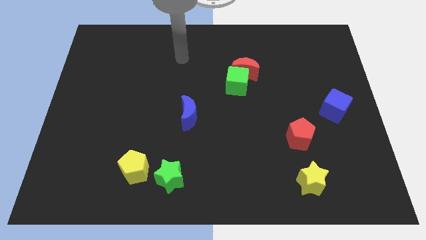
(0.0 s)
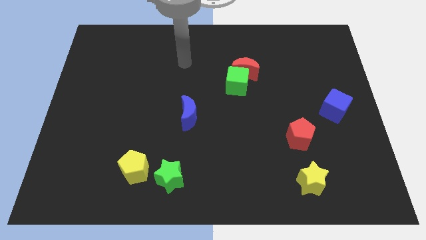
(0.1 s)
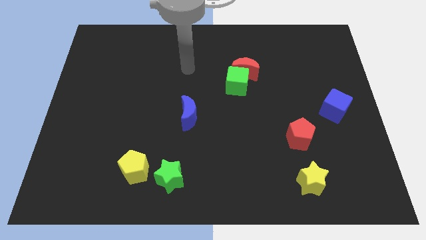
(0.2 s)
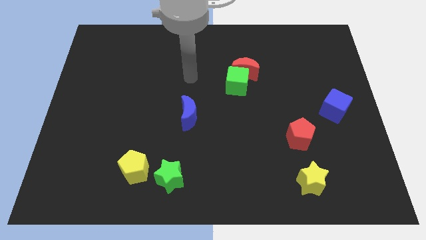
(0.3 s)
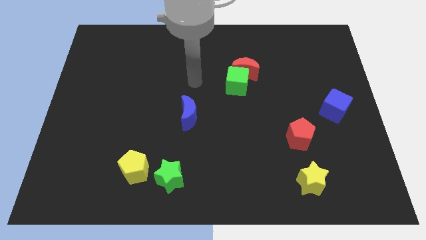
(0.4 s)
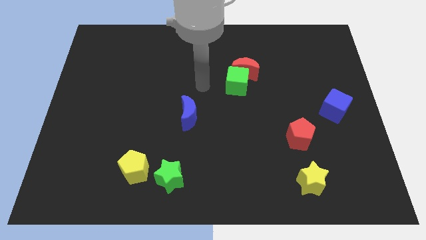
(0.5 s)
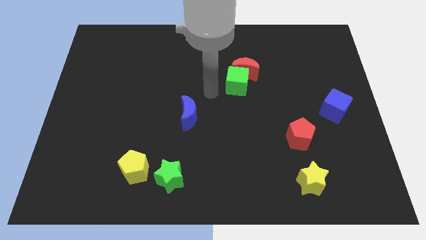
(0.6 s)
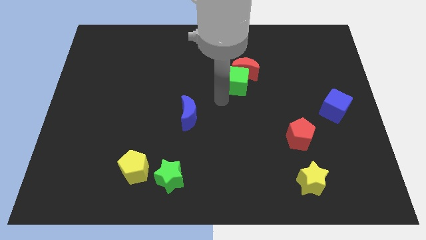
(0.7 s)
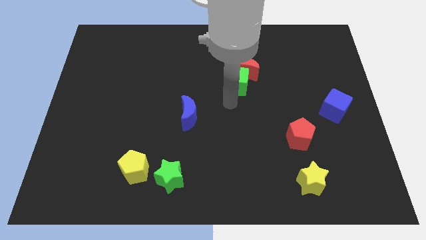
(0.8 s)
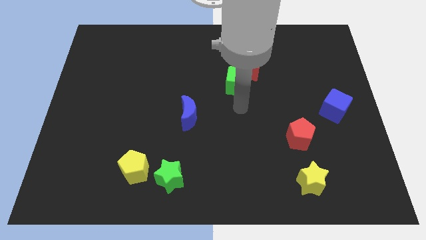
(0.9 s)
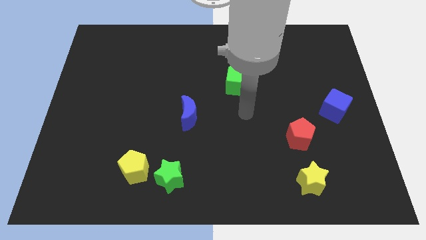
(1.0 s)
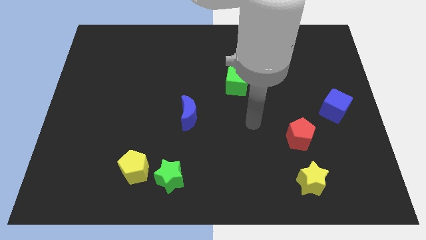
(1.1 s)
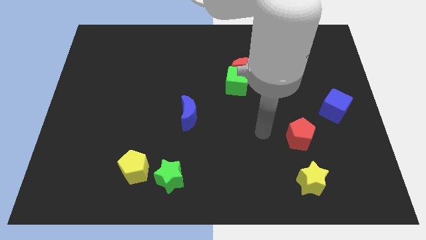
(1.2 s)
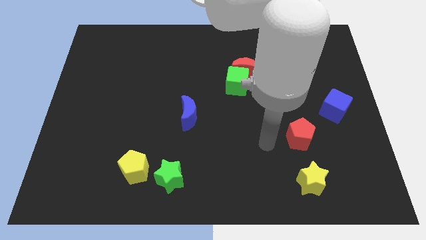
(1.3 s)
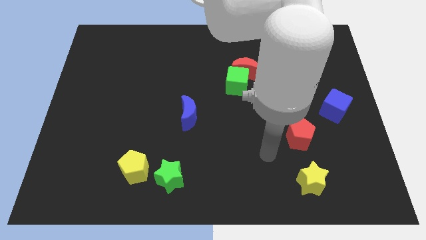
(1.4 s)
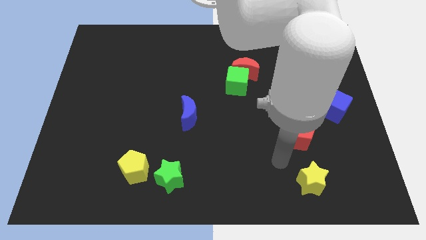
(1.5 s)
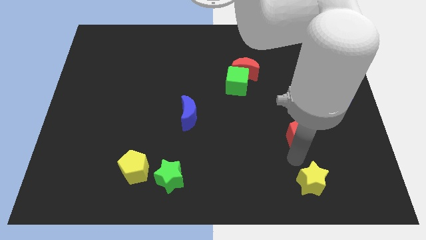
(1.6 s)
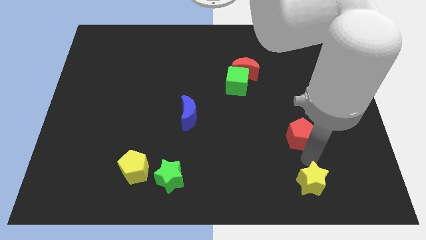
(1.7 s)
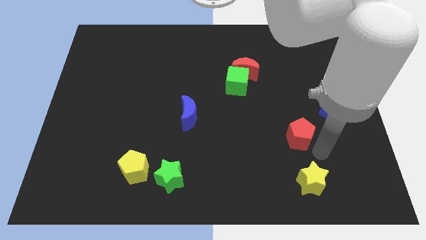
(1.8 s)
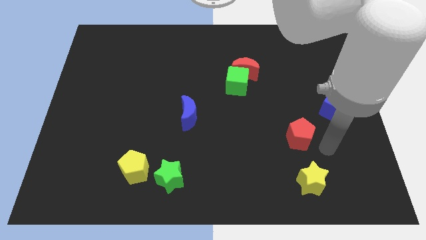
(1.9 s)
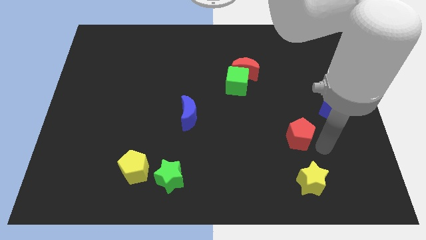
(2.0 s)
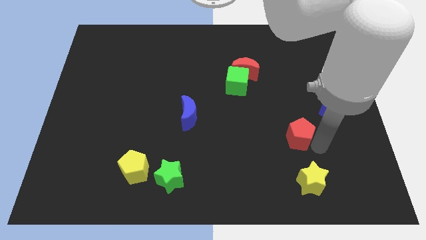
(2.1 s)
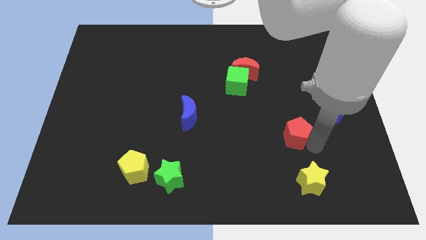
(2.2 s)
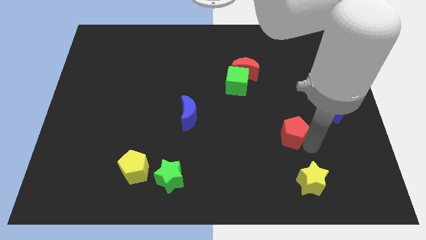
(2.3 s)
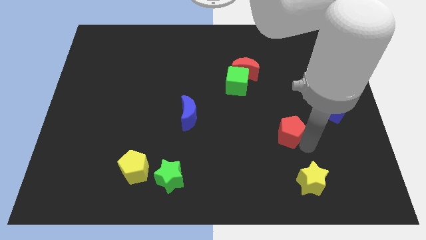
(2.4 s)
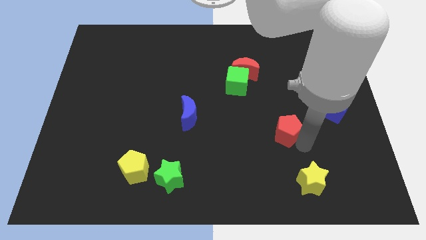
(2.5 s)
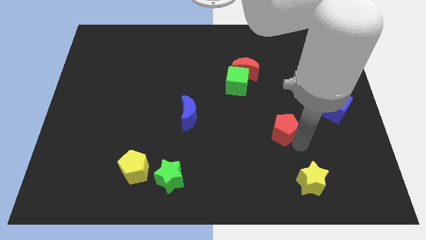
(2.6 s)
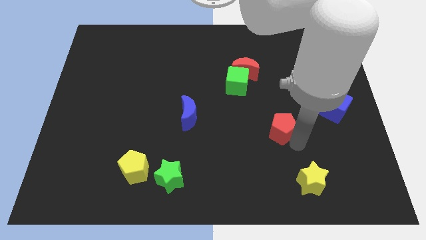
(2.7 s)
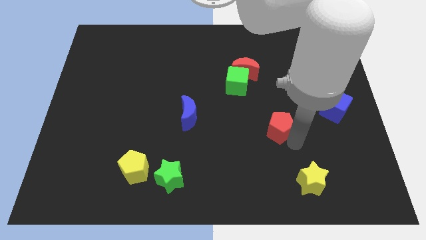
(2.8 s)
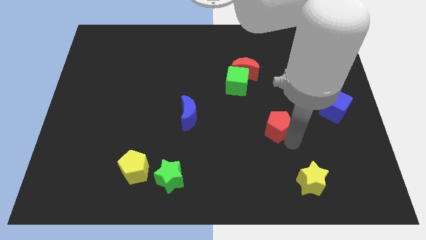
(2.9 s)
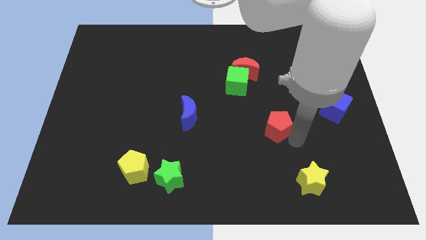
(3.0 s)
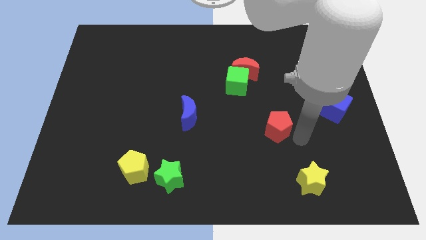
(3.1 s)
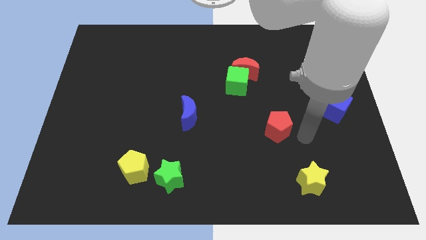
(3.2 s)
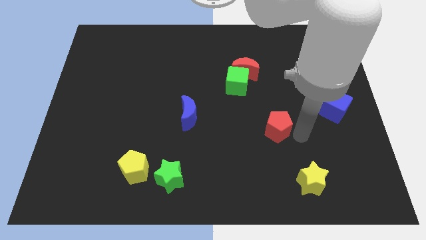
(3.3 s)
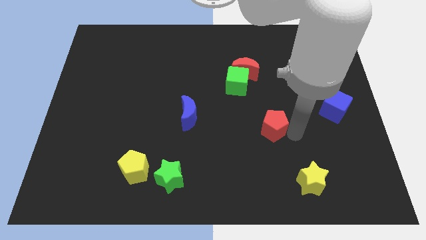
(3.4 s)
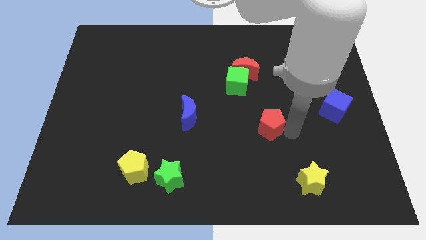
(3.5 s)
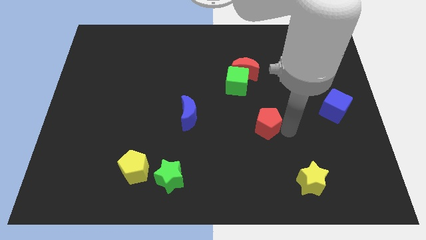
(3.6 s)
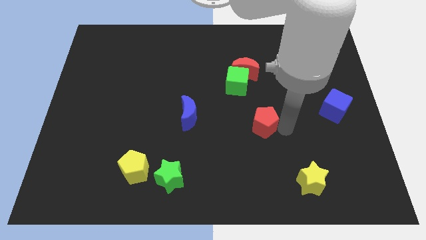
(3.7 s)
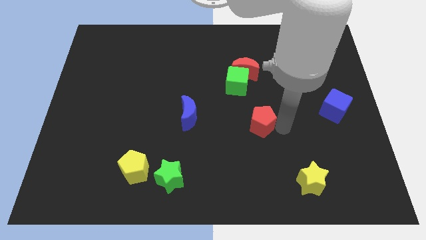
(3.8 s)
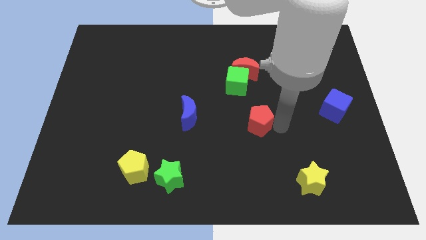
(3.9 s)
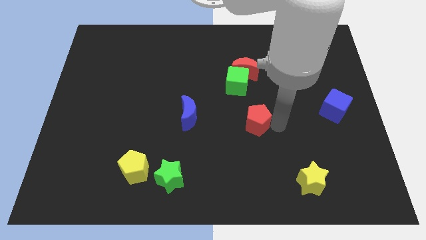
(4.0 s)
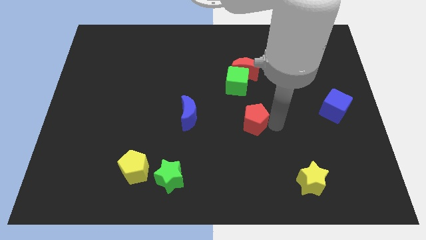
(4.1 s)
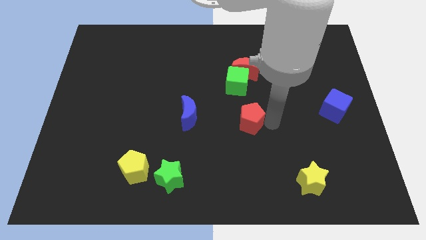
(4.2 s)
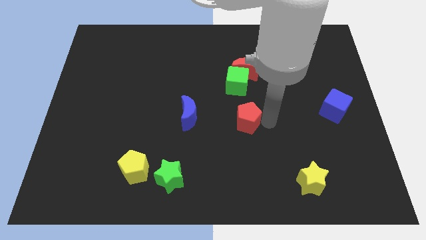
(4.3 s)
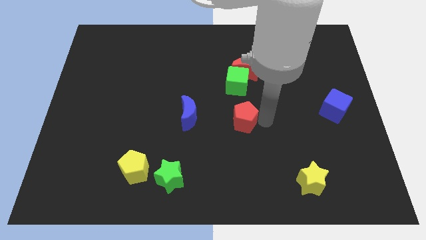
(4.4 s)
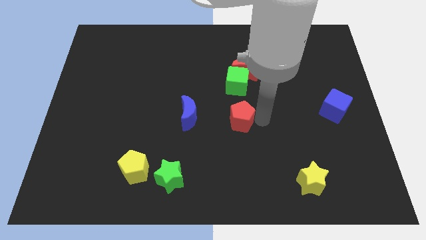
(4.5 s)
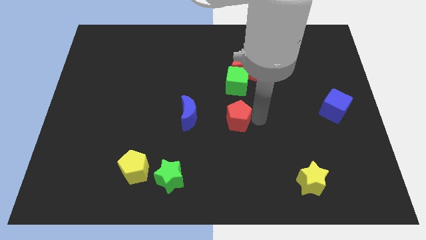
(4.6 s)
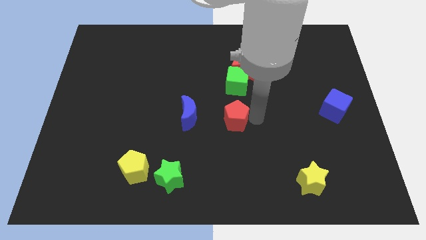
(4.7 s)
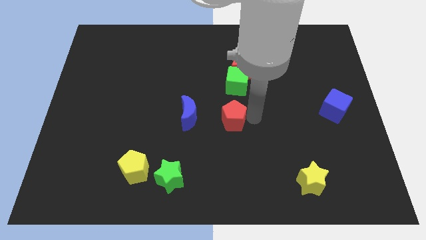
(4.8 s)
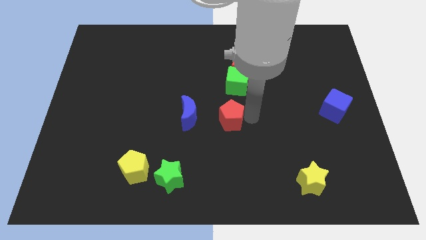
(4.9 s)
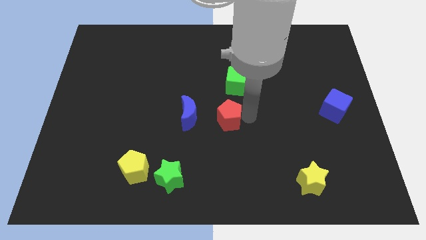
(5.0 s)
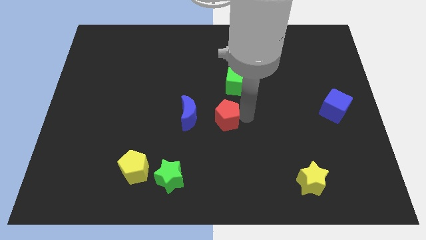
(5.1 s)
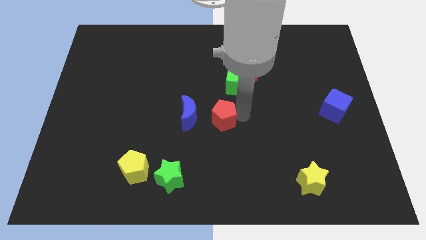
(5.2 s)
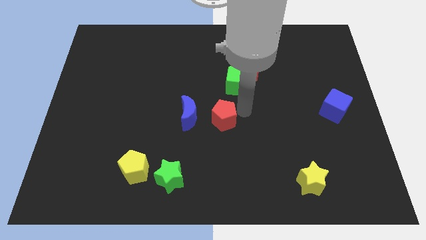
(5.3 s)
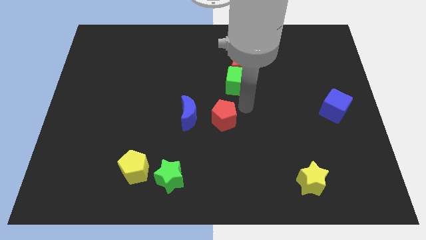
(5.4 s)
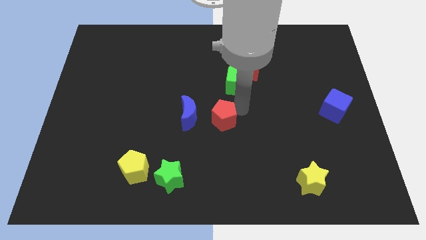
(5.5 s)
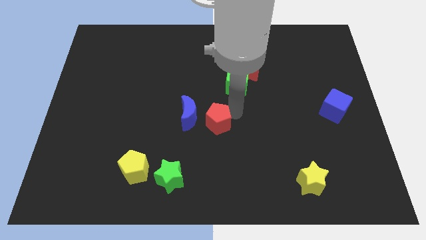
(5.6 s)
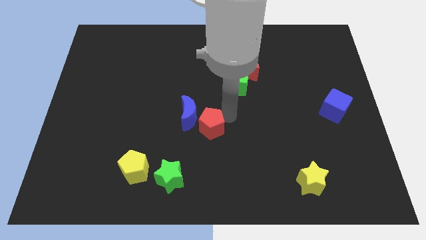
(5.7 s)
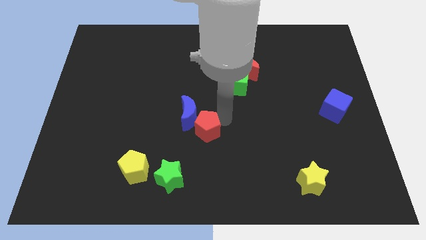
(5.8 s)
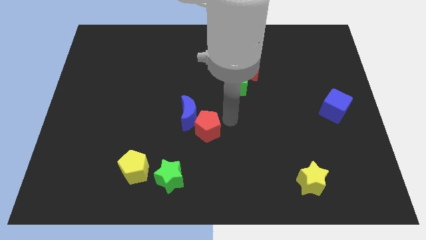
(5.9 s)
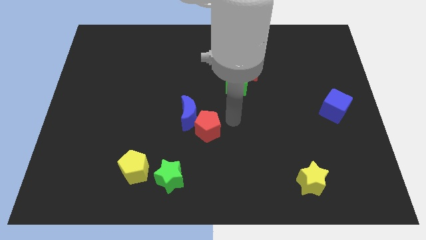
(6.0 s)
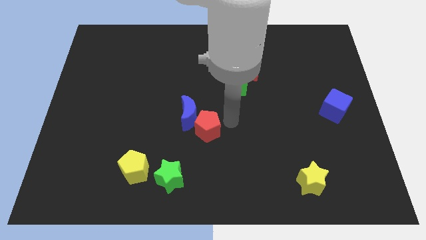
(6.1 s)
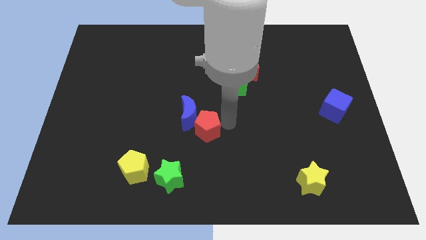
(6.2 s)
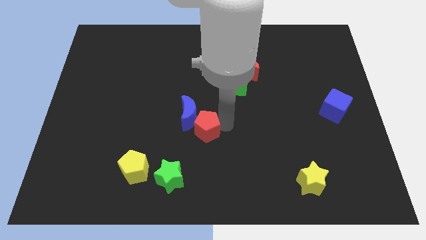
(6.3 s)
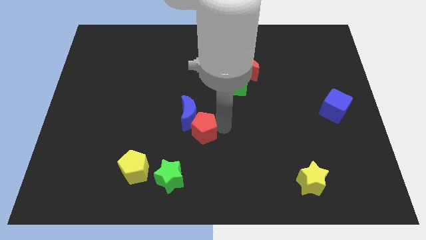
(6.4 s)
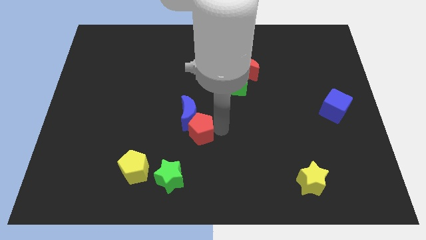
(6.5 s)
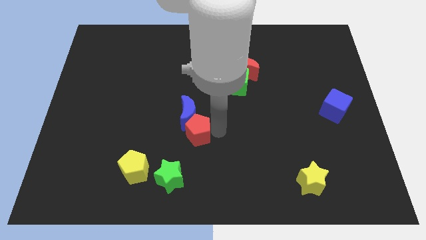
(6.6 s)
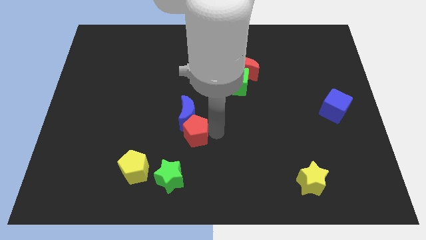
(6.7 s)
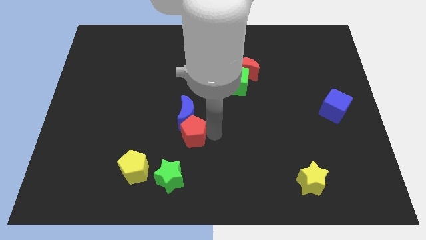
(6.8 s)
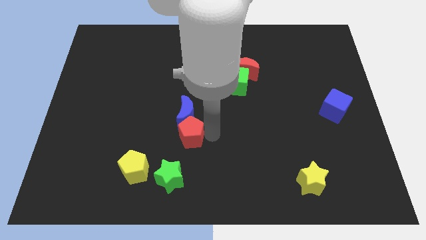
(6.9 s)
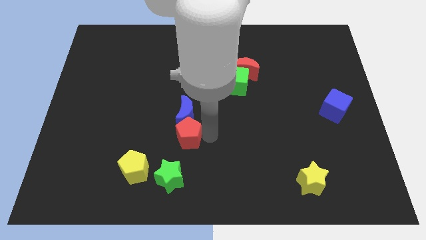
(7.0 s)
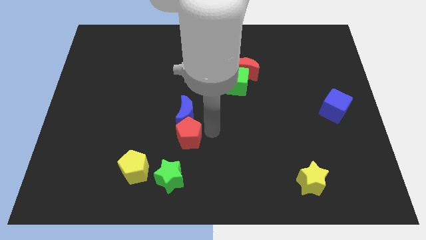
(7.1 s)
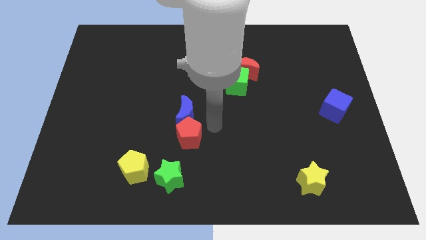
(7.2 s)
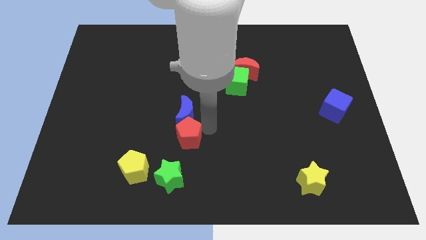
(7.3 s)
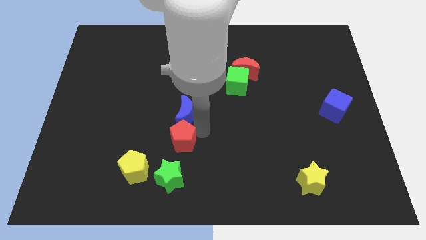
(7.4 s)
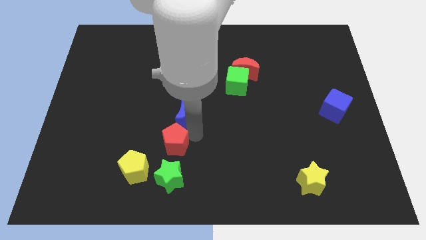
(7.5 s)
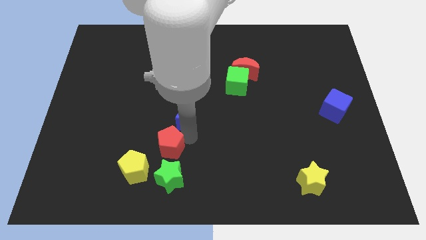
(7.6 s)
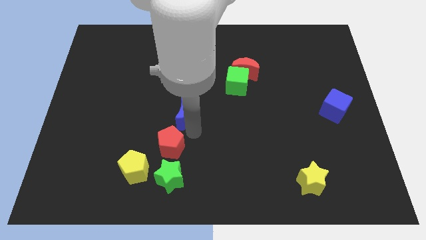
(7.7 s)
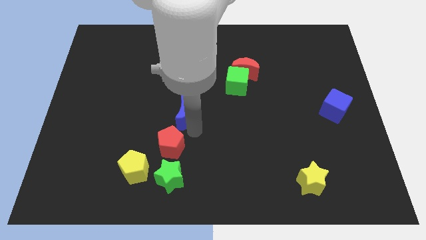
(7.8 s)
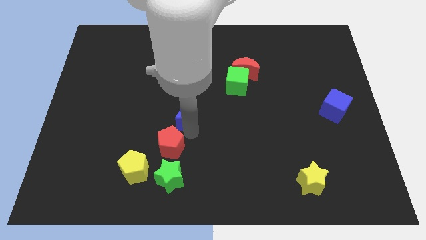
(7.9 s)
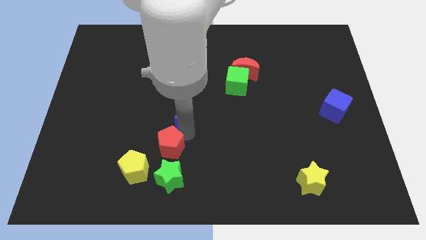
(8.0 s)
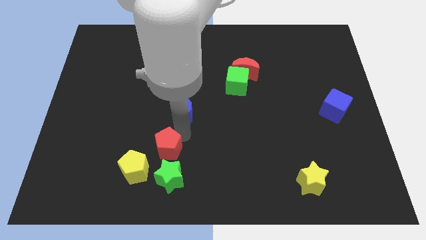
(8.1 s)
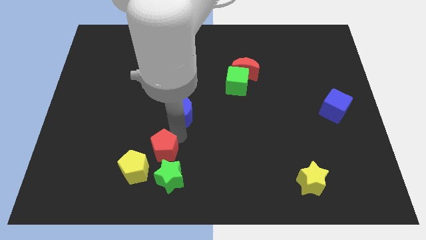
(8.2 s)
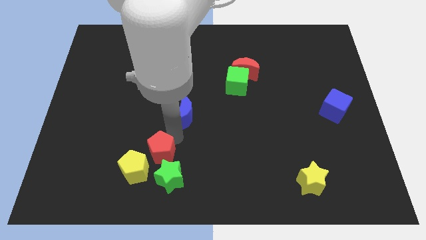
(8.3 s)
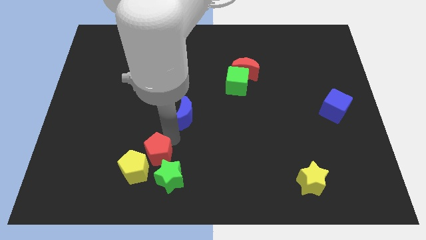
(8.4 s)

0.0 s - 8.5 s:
push the red pentagon towards the yellow pentagon
